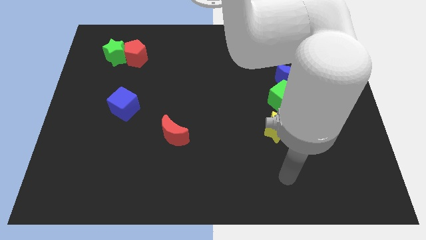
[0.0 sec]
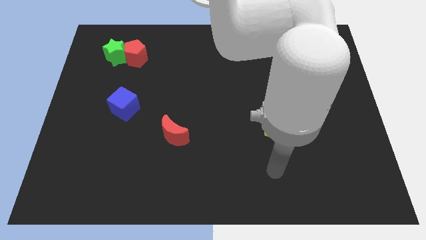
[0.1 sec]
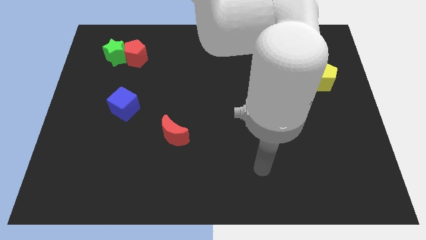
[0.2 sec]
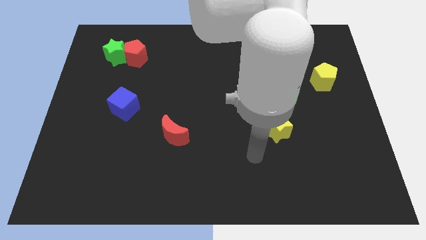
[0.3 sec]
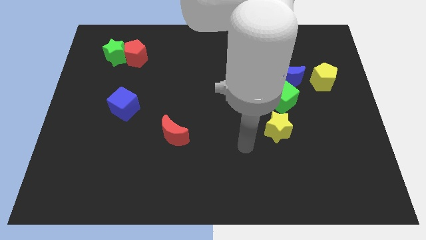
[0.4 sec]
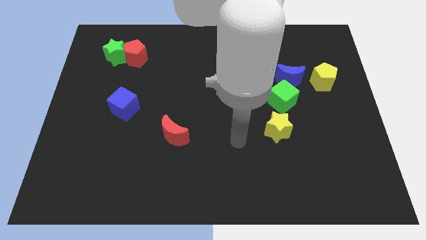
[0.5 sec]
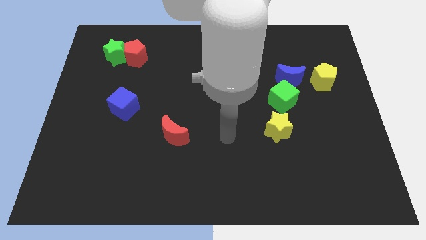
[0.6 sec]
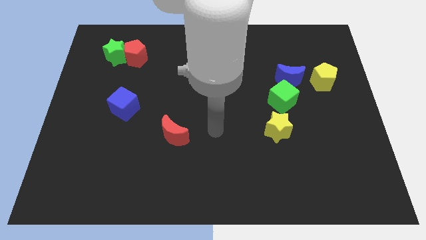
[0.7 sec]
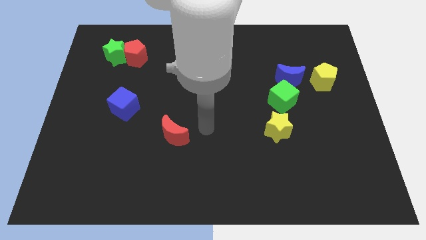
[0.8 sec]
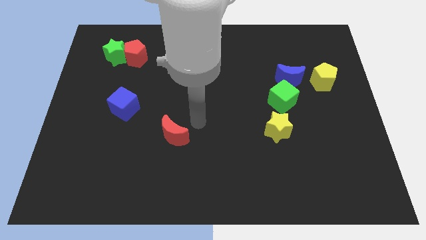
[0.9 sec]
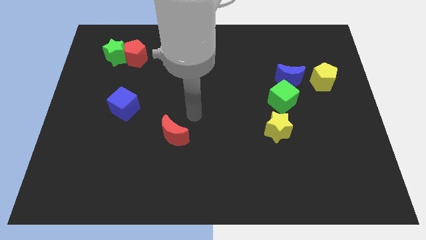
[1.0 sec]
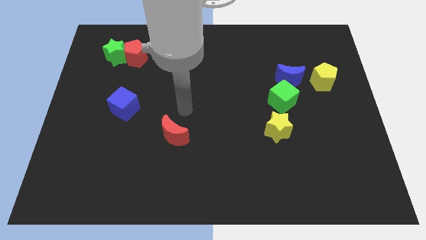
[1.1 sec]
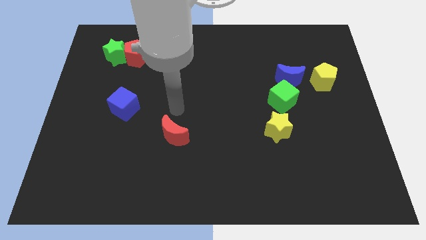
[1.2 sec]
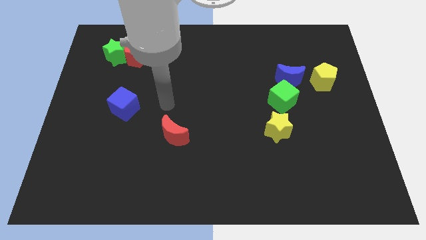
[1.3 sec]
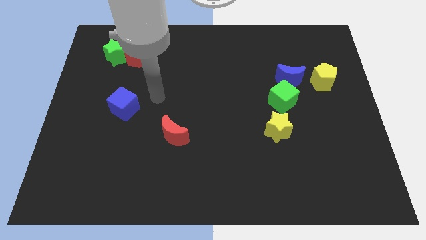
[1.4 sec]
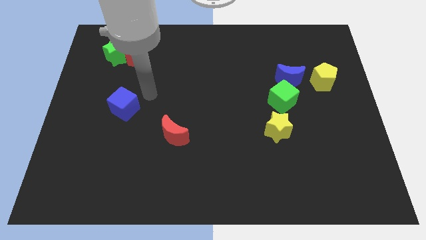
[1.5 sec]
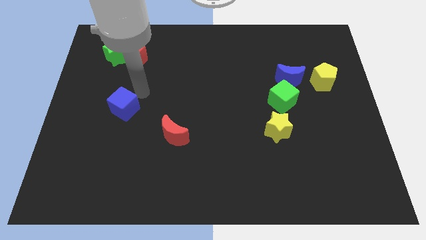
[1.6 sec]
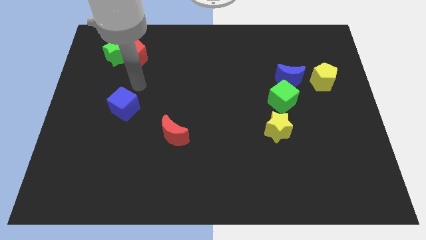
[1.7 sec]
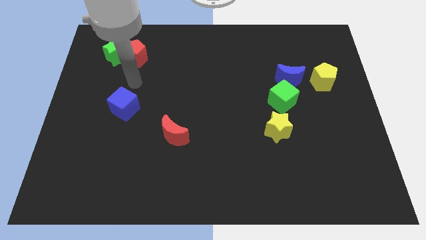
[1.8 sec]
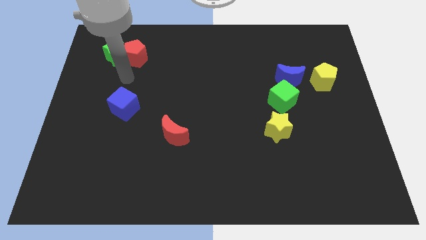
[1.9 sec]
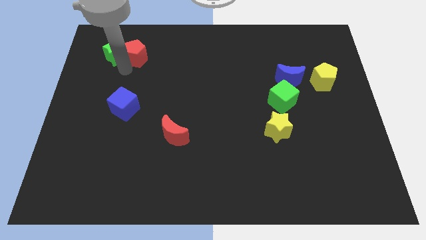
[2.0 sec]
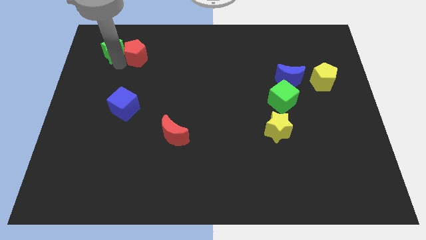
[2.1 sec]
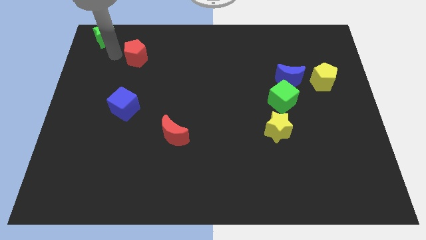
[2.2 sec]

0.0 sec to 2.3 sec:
separate the red pentagon from the green star

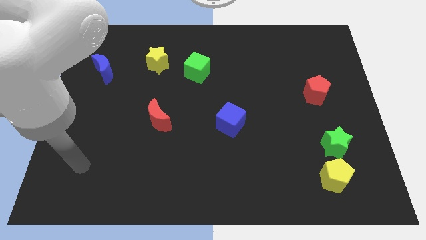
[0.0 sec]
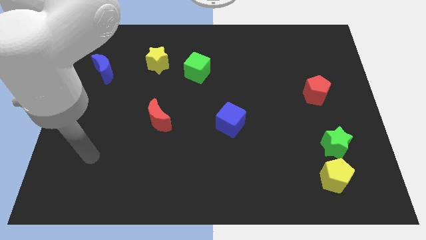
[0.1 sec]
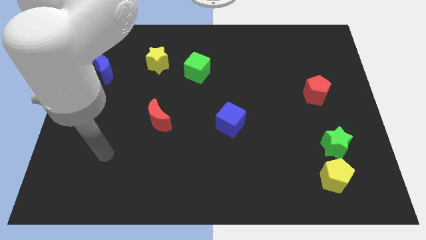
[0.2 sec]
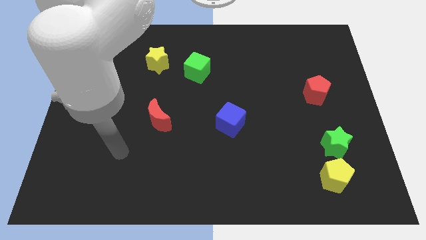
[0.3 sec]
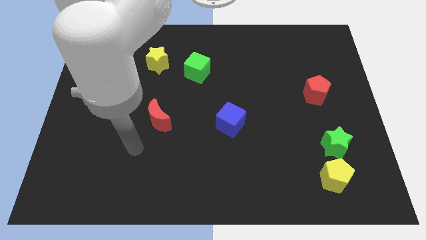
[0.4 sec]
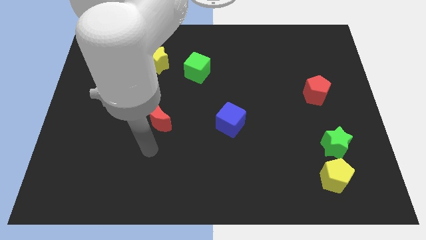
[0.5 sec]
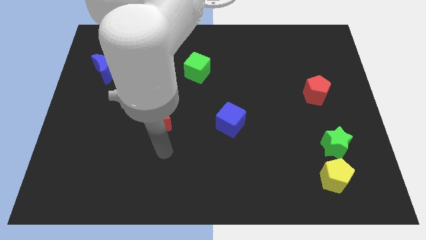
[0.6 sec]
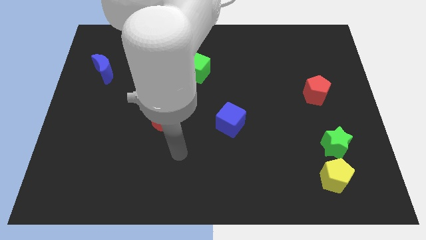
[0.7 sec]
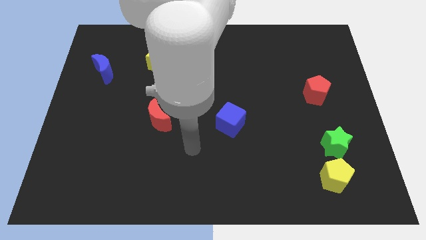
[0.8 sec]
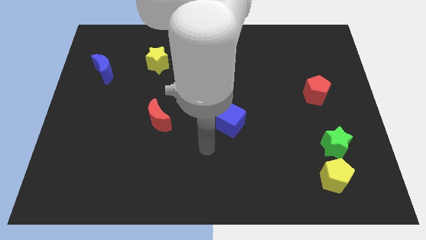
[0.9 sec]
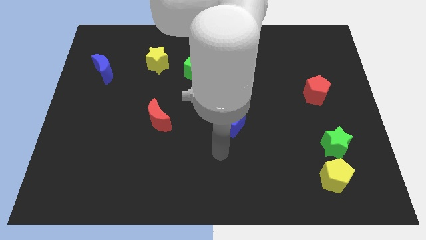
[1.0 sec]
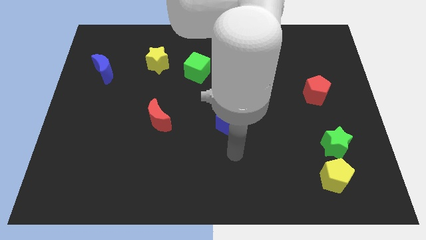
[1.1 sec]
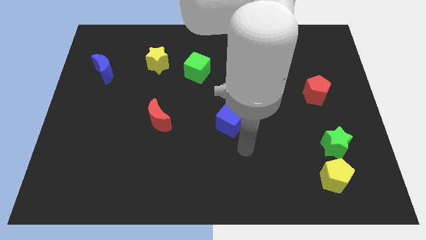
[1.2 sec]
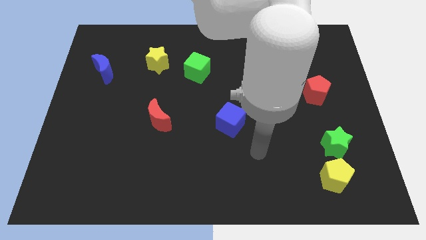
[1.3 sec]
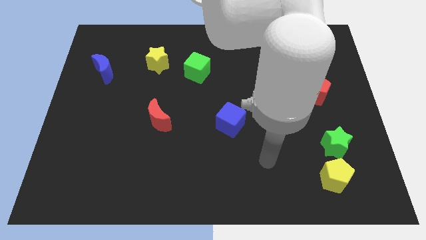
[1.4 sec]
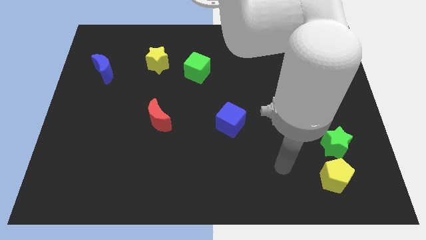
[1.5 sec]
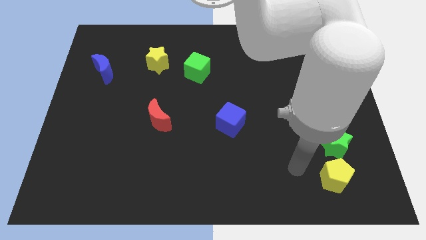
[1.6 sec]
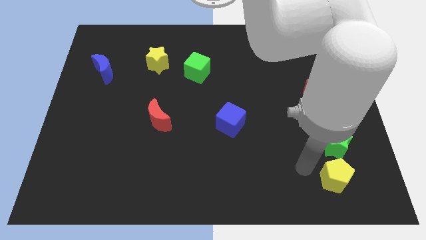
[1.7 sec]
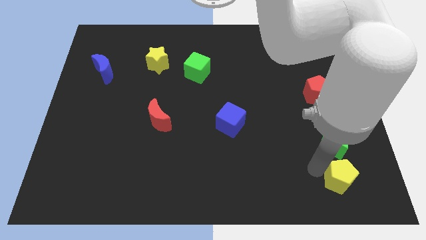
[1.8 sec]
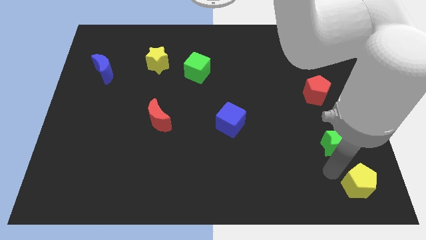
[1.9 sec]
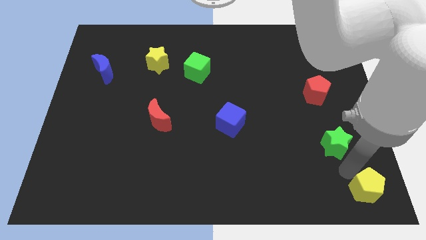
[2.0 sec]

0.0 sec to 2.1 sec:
pull the green star apart from the yellow pentagon

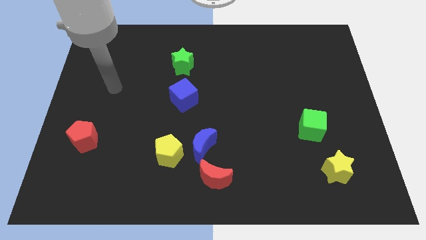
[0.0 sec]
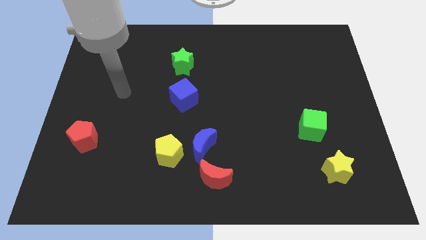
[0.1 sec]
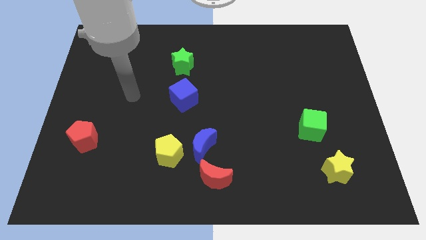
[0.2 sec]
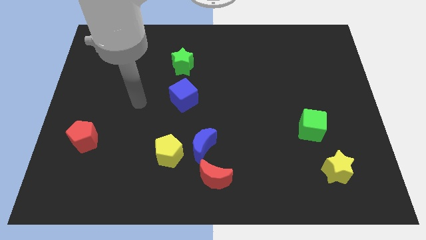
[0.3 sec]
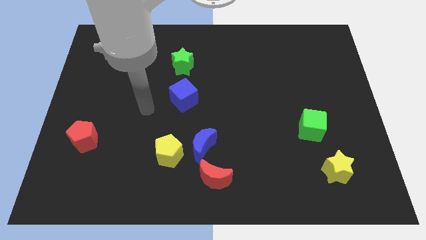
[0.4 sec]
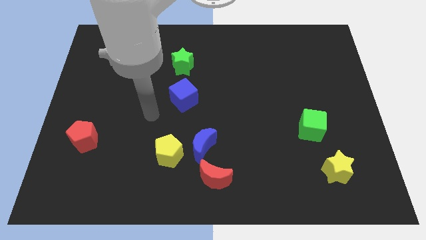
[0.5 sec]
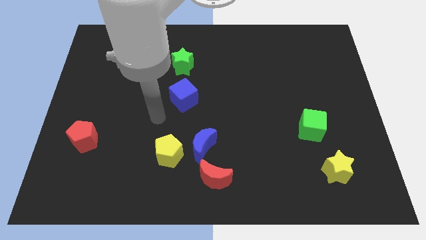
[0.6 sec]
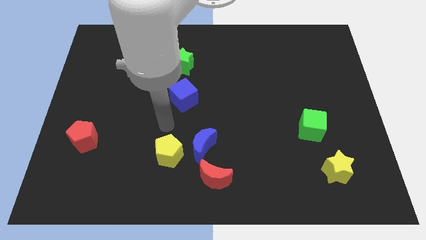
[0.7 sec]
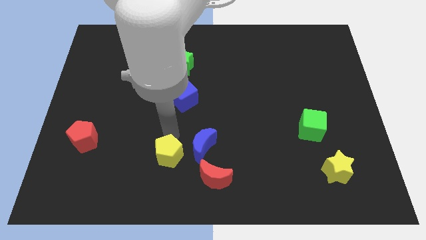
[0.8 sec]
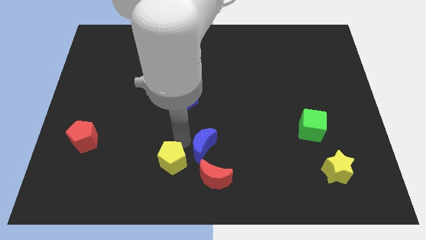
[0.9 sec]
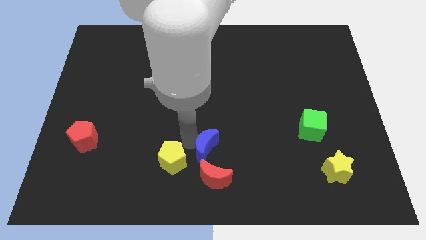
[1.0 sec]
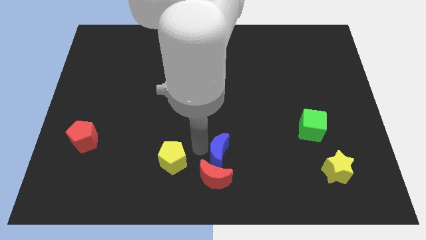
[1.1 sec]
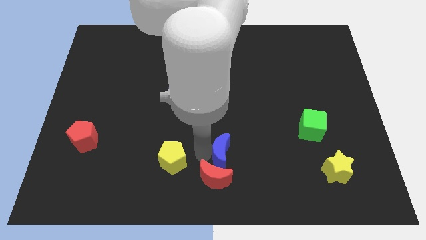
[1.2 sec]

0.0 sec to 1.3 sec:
move the yellow pentagon away from the blue moon

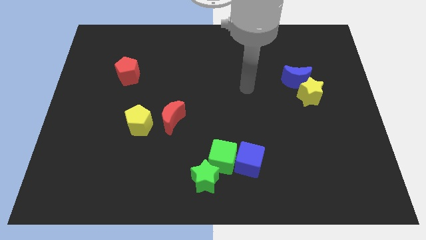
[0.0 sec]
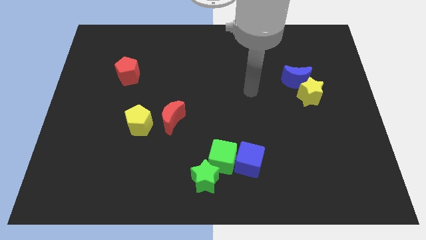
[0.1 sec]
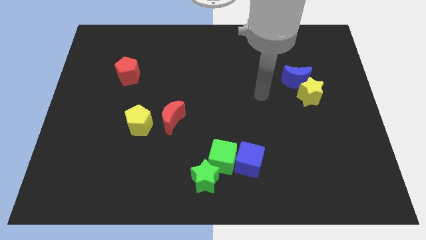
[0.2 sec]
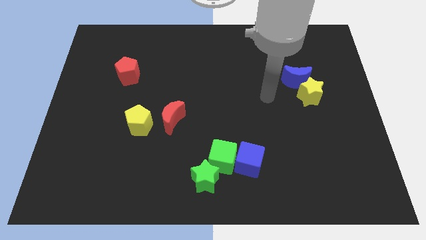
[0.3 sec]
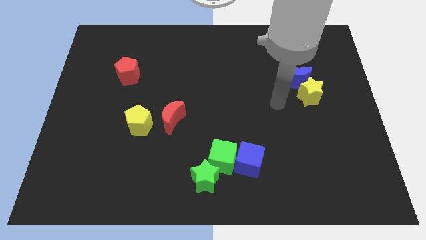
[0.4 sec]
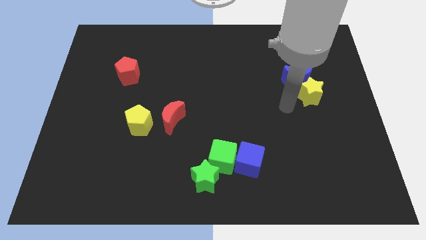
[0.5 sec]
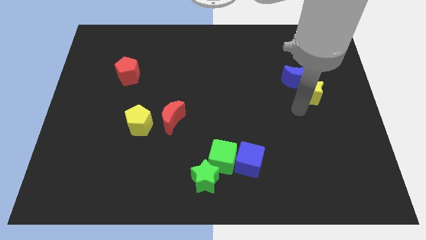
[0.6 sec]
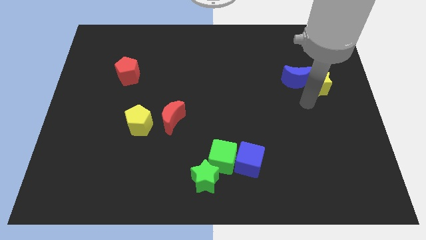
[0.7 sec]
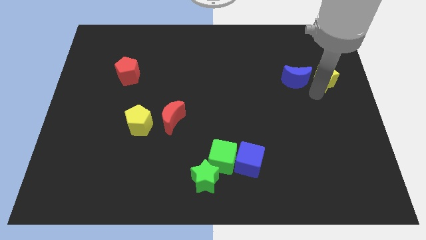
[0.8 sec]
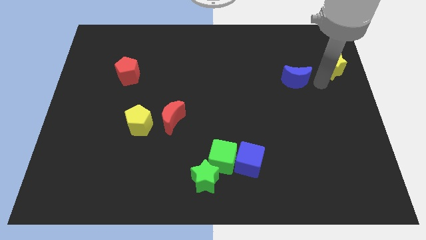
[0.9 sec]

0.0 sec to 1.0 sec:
separate the blue moon from the yellow star

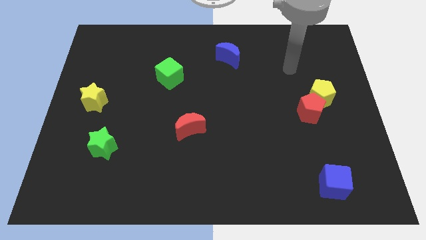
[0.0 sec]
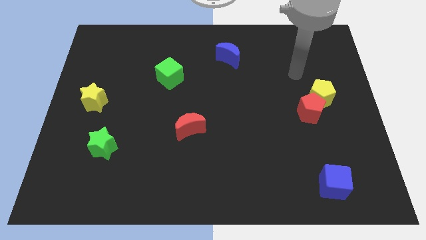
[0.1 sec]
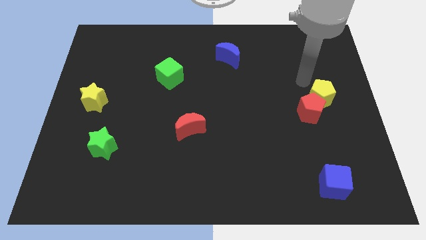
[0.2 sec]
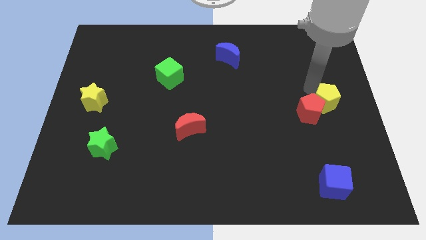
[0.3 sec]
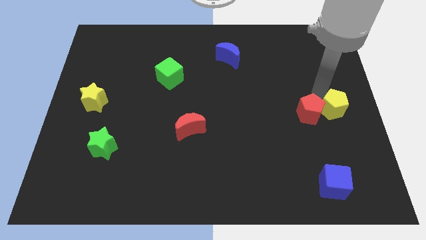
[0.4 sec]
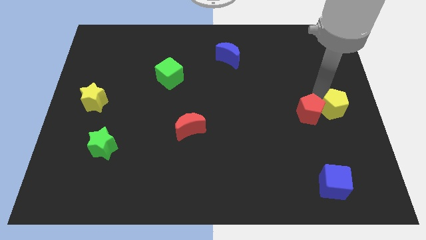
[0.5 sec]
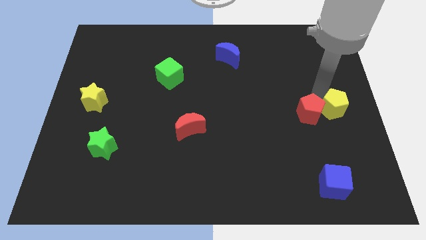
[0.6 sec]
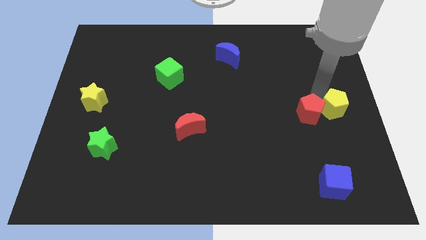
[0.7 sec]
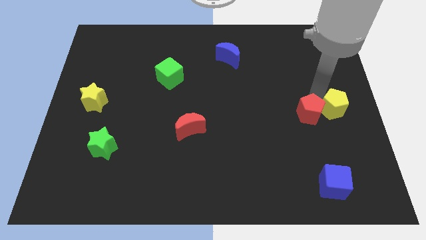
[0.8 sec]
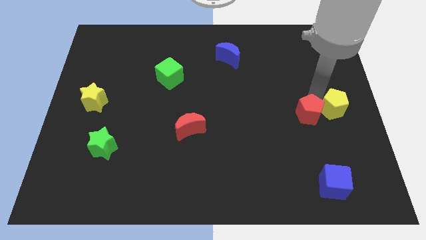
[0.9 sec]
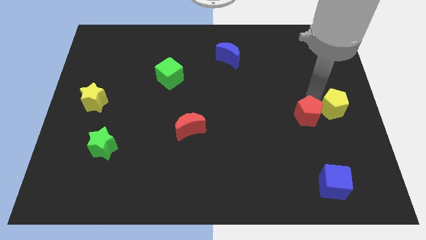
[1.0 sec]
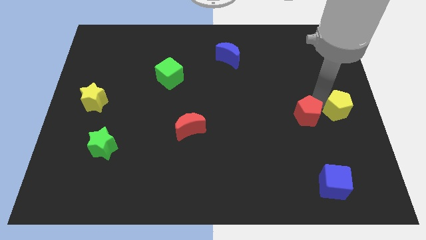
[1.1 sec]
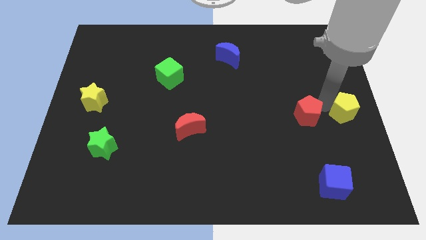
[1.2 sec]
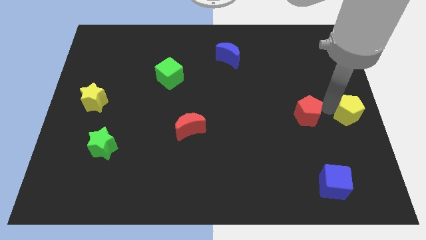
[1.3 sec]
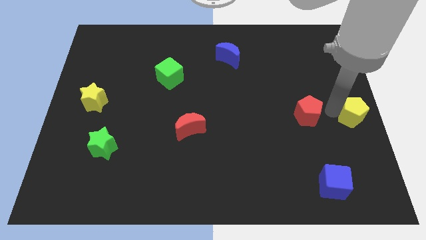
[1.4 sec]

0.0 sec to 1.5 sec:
separate the red pentagon from the yellow pentagon

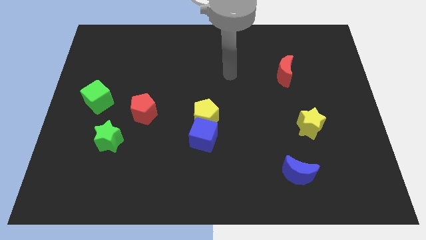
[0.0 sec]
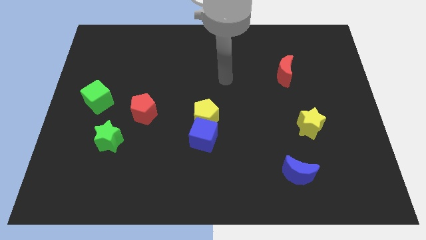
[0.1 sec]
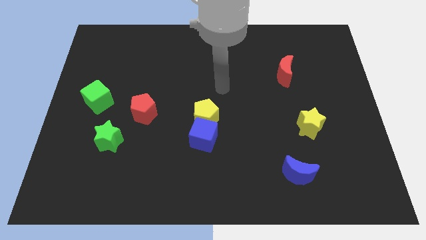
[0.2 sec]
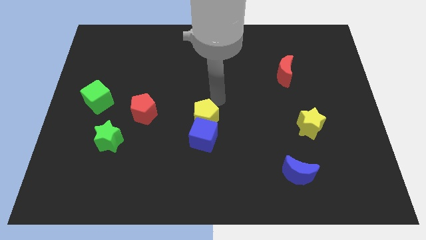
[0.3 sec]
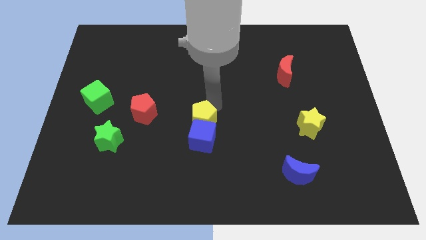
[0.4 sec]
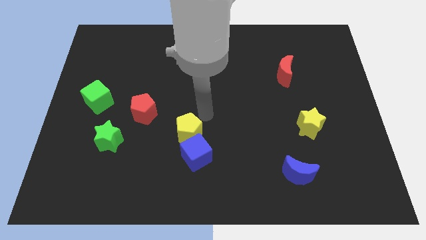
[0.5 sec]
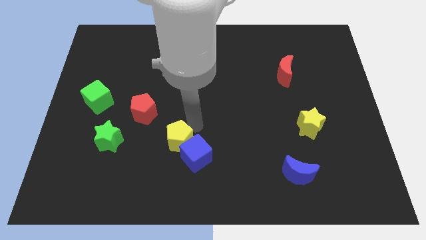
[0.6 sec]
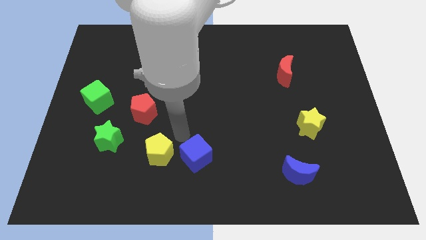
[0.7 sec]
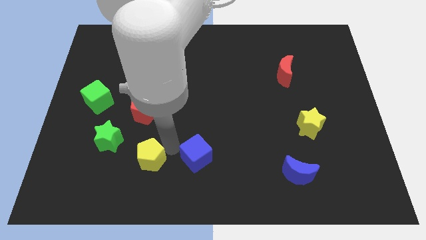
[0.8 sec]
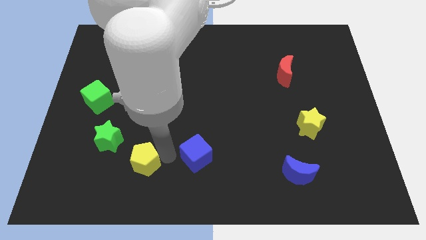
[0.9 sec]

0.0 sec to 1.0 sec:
separate the blue cube from the yellow pentagon
